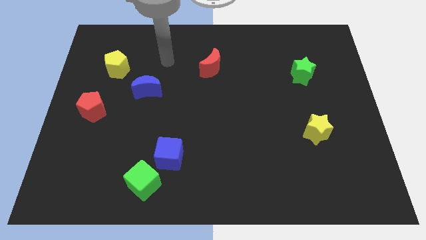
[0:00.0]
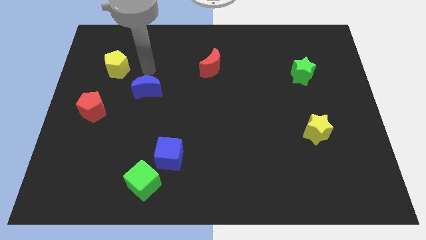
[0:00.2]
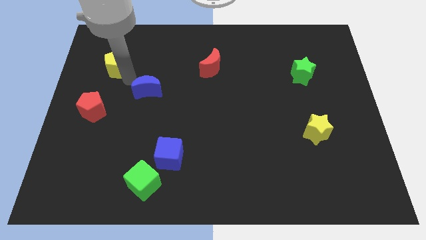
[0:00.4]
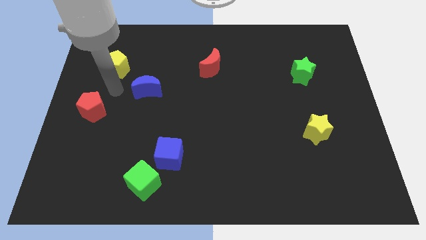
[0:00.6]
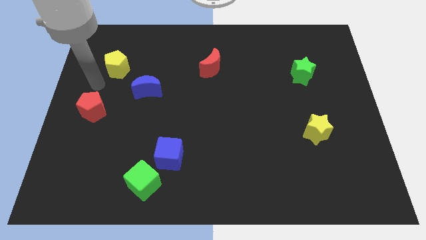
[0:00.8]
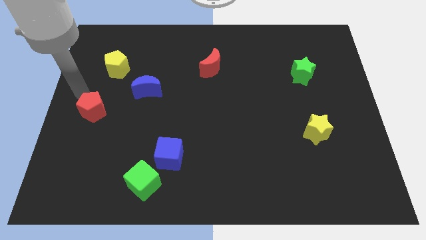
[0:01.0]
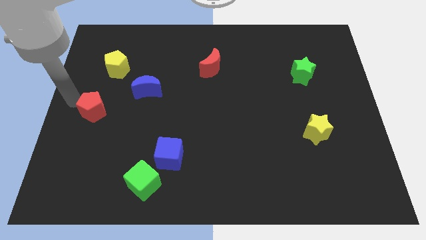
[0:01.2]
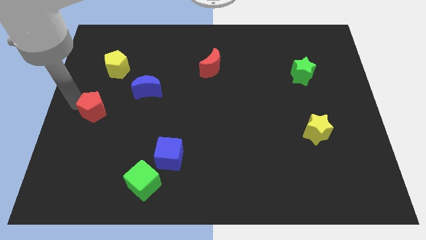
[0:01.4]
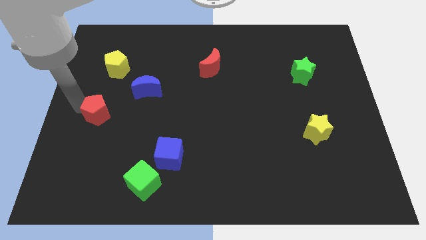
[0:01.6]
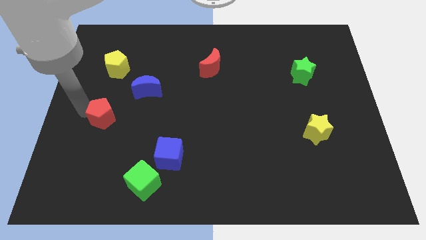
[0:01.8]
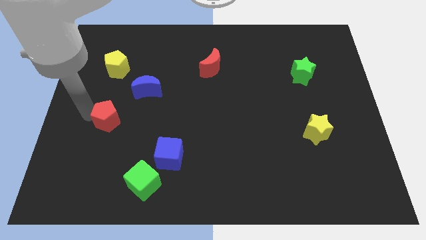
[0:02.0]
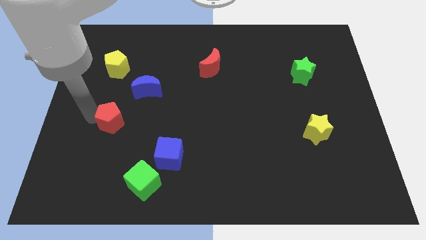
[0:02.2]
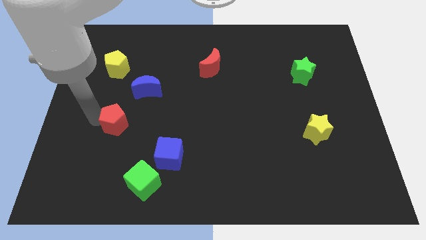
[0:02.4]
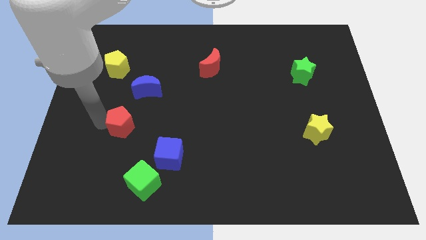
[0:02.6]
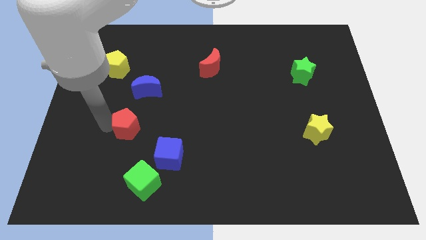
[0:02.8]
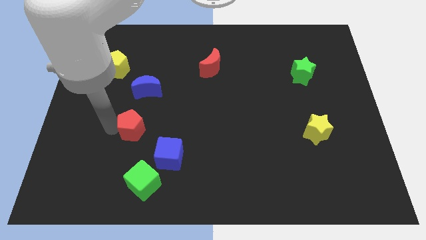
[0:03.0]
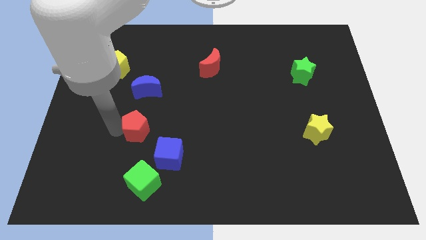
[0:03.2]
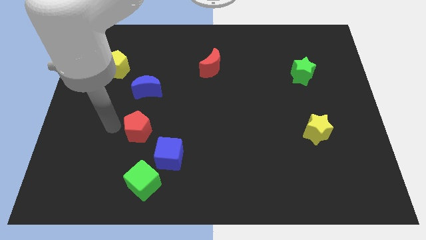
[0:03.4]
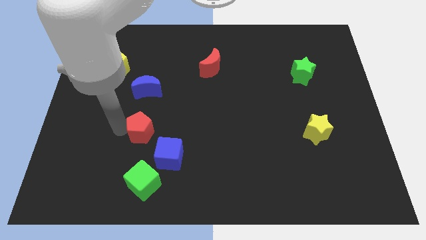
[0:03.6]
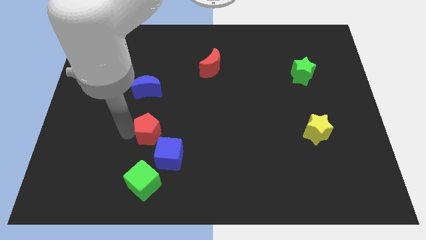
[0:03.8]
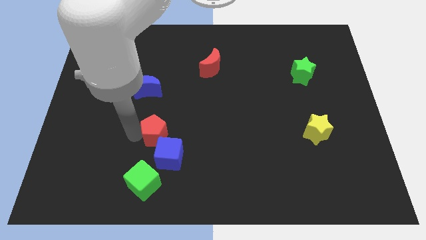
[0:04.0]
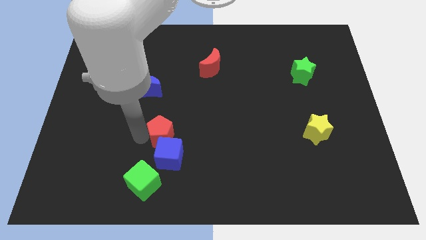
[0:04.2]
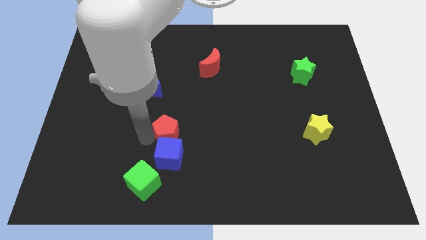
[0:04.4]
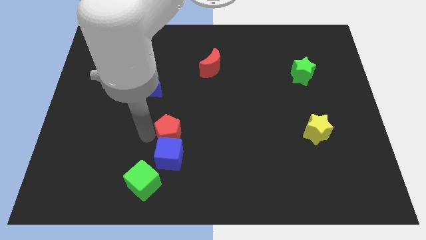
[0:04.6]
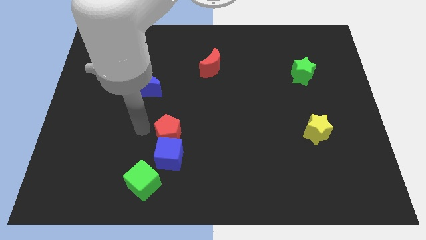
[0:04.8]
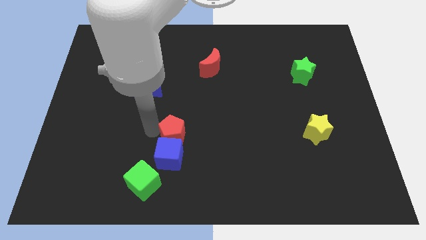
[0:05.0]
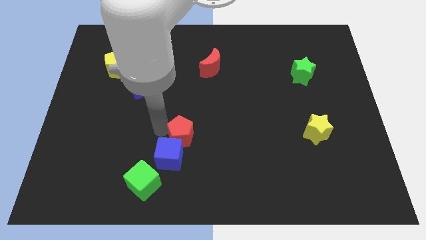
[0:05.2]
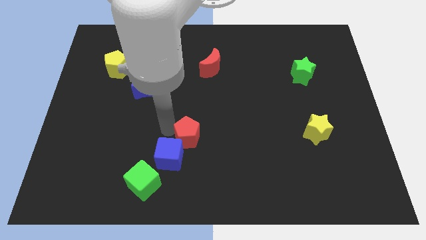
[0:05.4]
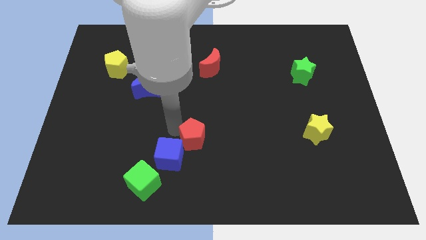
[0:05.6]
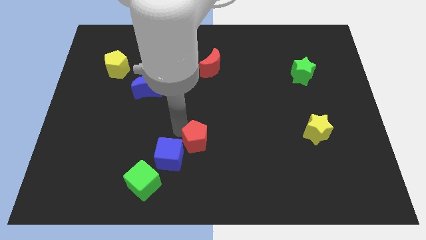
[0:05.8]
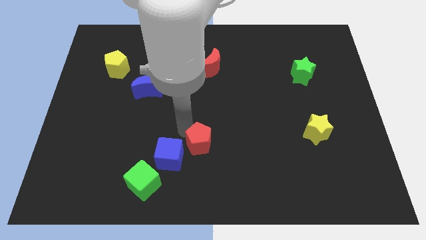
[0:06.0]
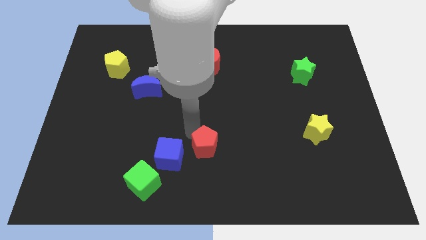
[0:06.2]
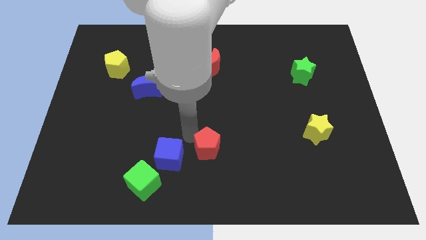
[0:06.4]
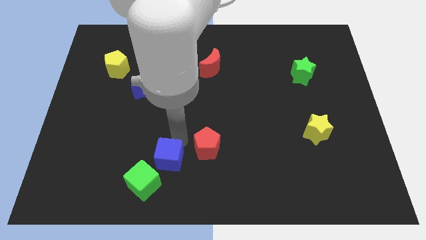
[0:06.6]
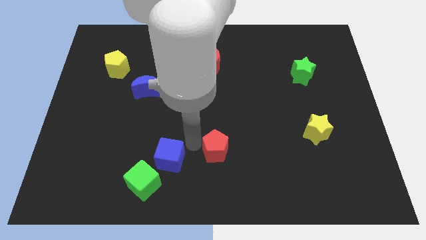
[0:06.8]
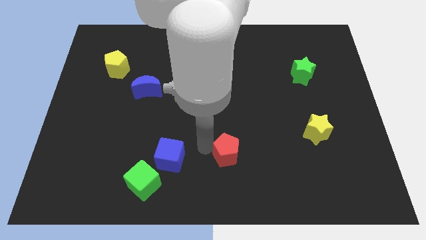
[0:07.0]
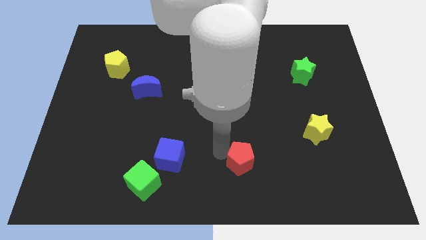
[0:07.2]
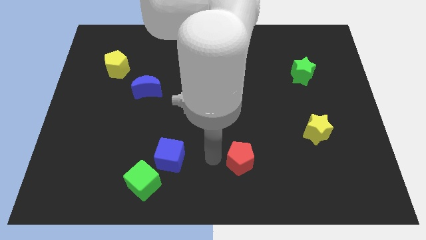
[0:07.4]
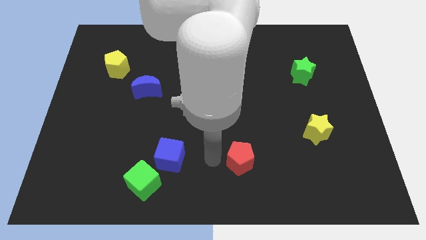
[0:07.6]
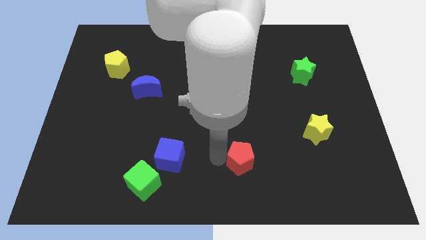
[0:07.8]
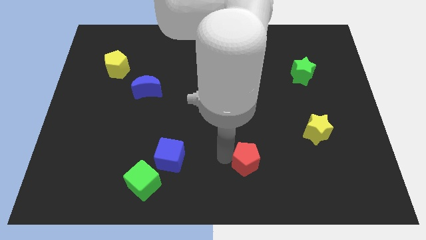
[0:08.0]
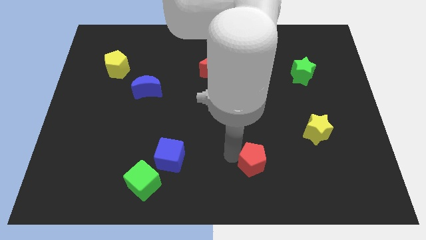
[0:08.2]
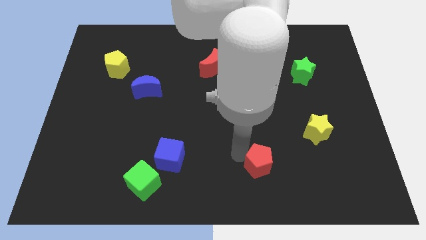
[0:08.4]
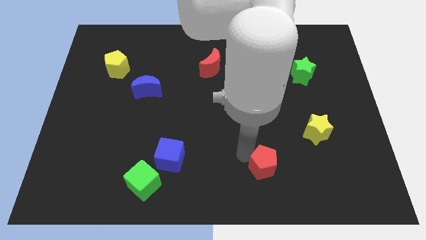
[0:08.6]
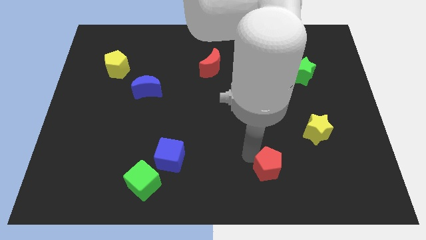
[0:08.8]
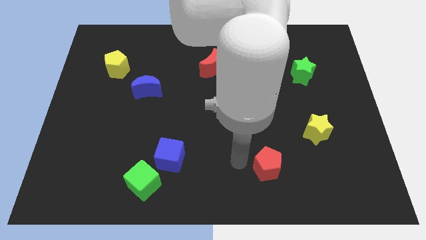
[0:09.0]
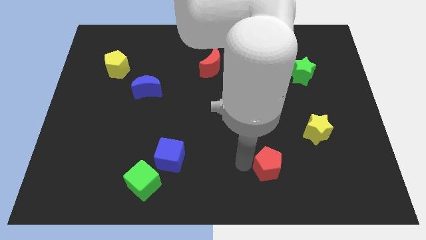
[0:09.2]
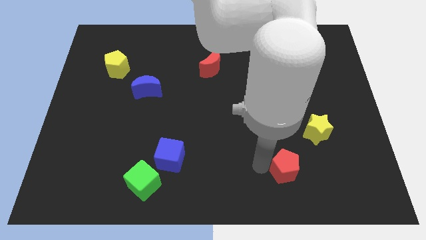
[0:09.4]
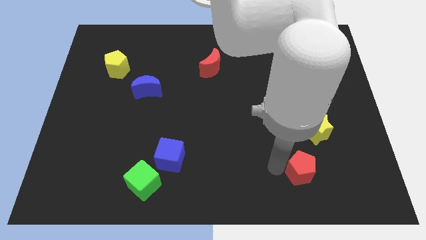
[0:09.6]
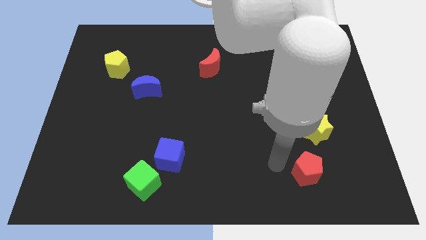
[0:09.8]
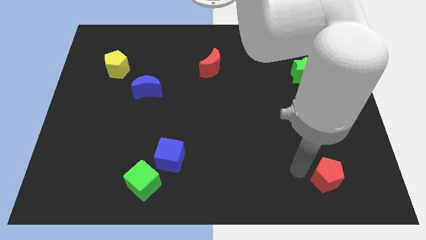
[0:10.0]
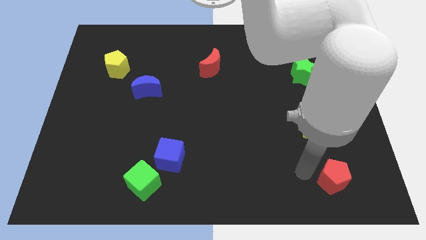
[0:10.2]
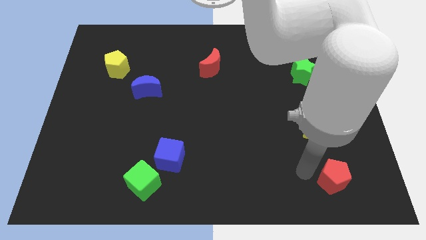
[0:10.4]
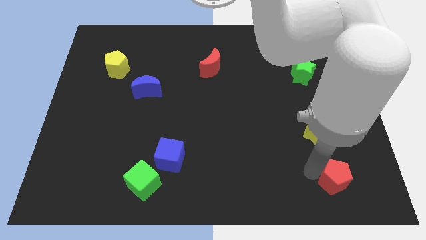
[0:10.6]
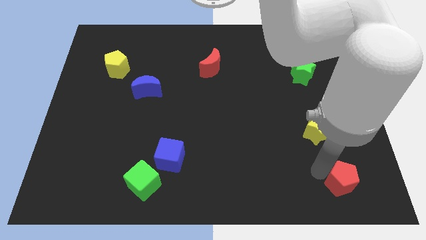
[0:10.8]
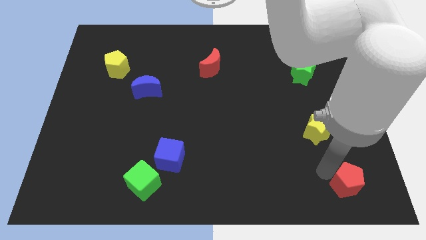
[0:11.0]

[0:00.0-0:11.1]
slide the red pentagon to the bottom right corner

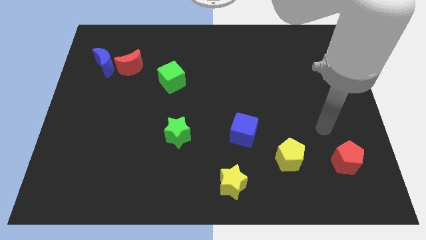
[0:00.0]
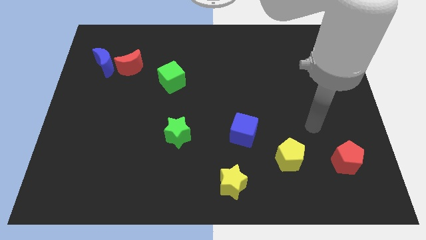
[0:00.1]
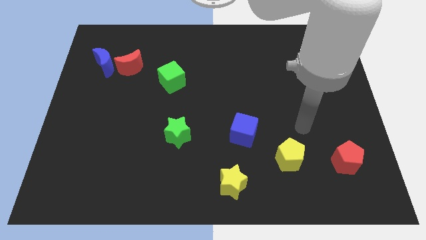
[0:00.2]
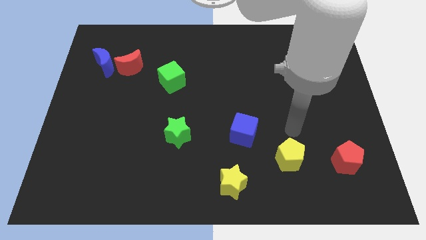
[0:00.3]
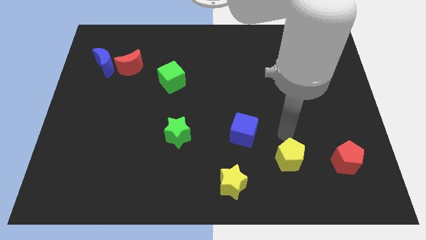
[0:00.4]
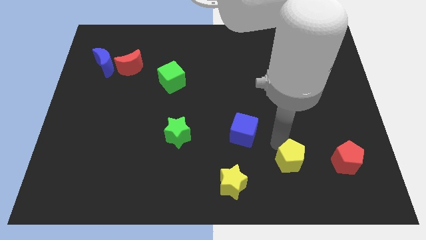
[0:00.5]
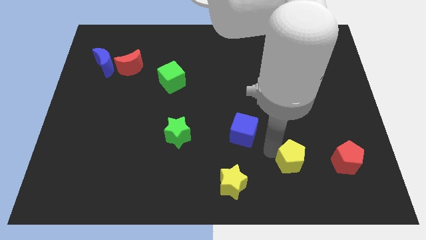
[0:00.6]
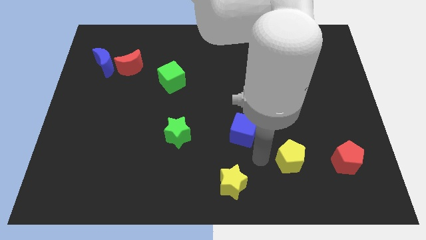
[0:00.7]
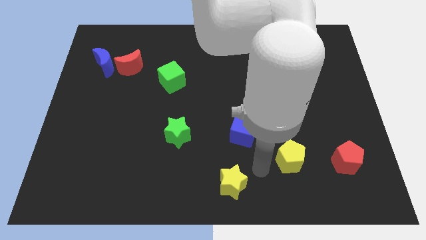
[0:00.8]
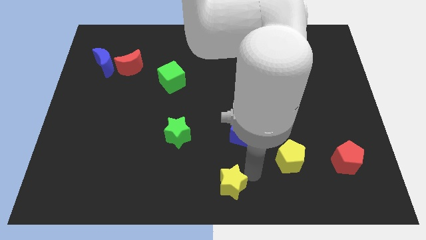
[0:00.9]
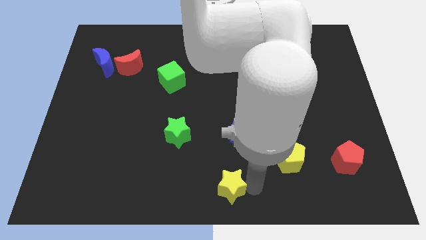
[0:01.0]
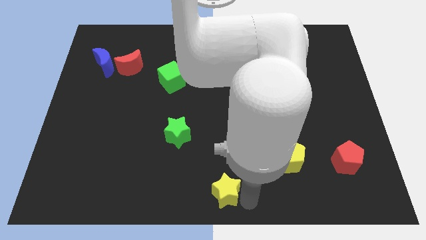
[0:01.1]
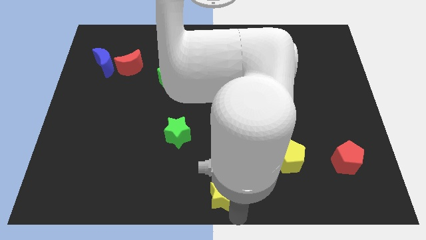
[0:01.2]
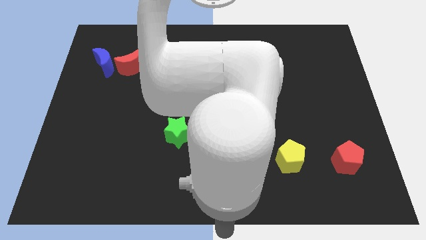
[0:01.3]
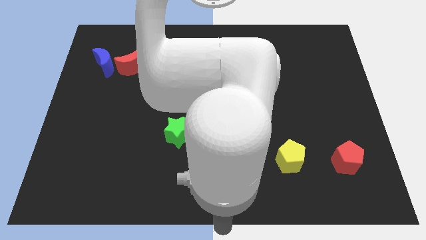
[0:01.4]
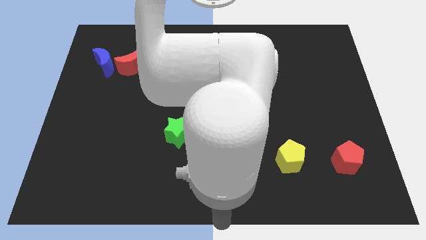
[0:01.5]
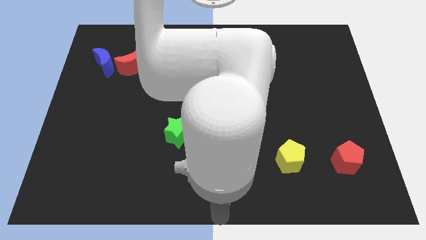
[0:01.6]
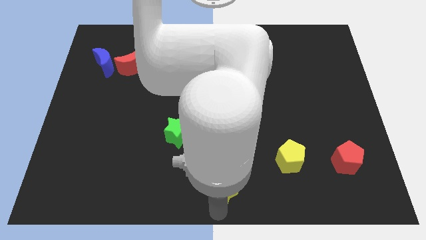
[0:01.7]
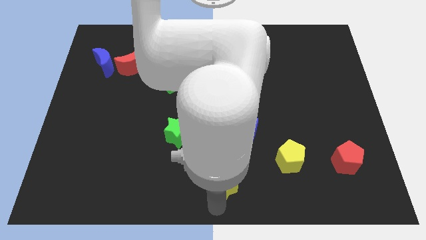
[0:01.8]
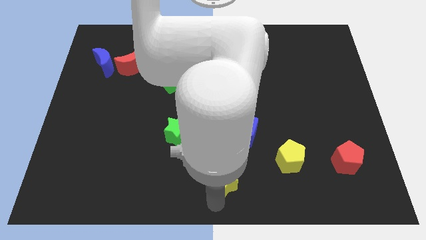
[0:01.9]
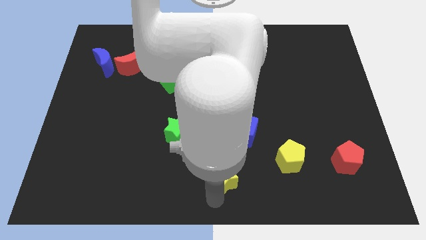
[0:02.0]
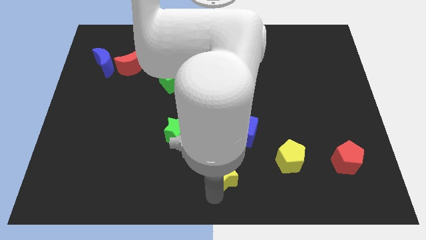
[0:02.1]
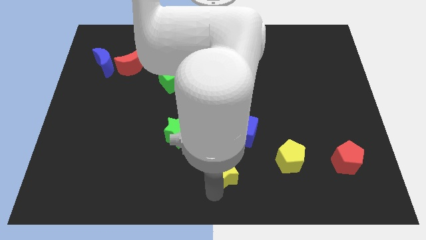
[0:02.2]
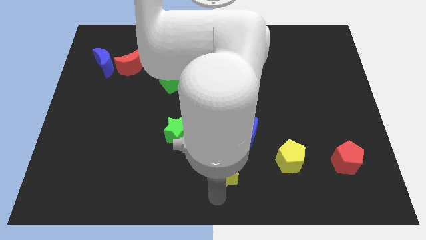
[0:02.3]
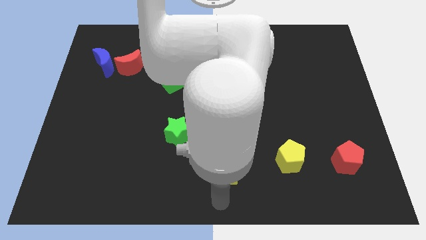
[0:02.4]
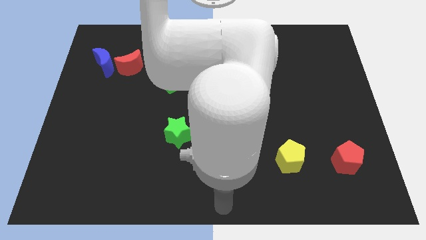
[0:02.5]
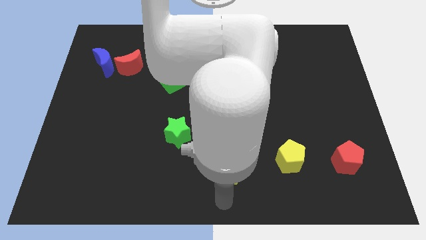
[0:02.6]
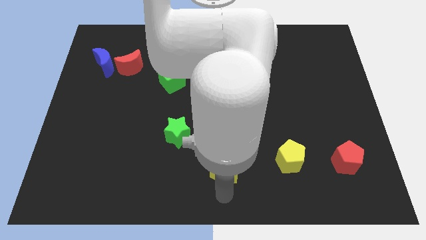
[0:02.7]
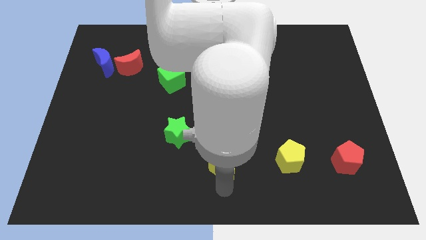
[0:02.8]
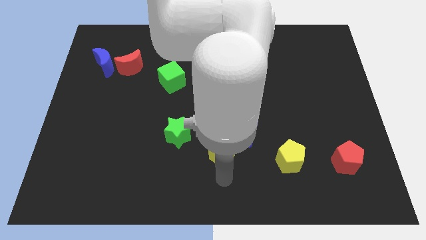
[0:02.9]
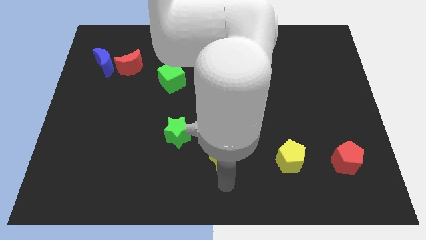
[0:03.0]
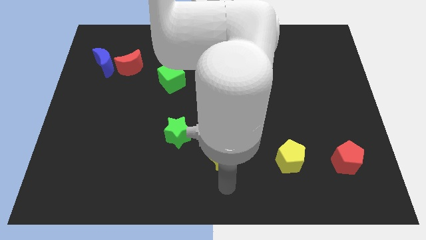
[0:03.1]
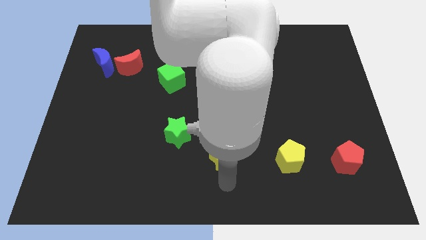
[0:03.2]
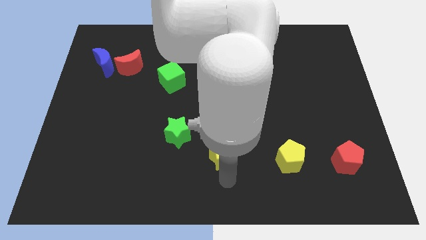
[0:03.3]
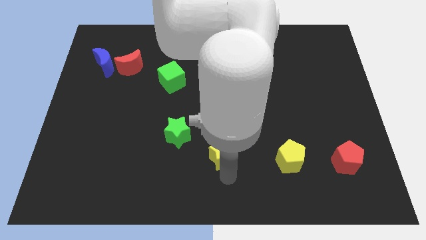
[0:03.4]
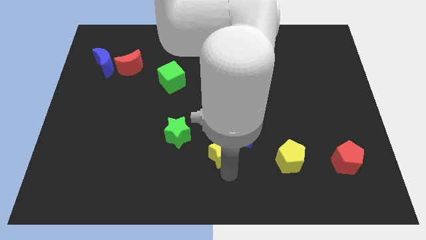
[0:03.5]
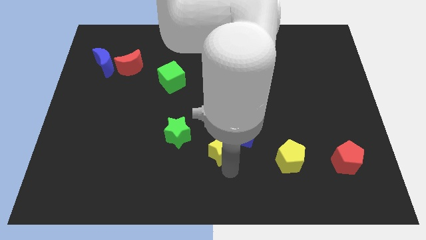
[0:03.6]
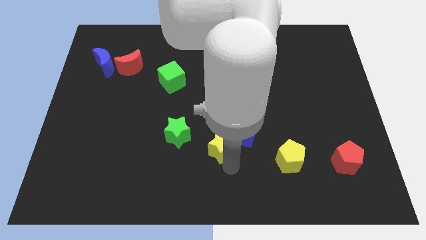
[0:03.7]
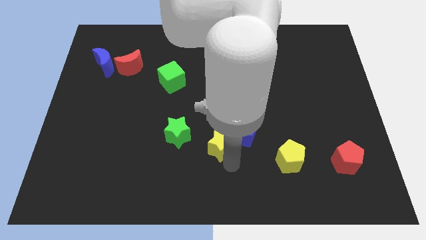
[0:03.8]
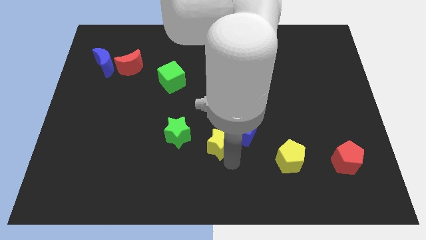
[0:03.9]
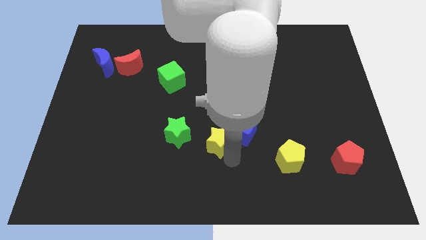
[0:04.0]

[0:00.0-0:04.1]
put the yellow star to the middle
